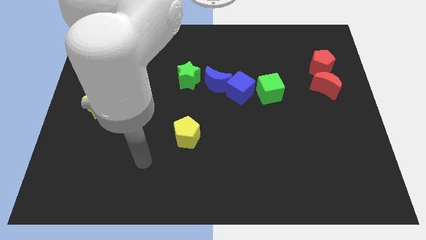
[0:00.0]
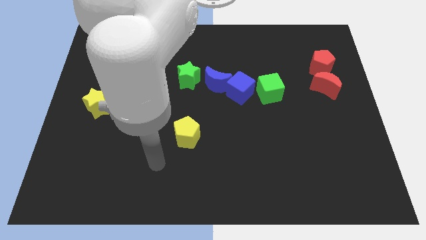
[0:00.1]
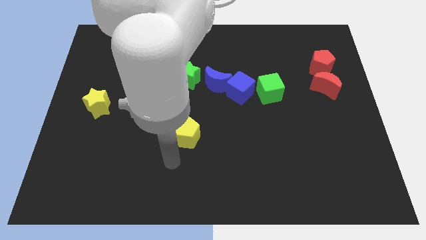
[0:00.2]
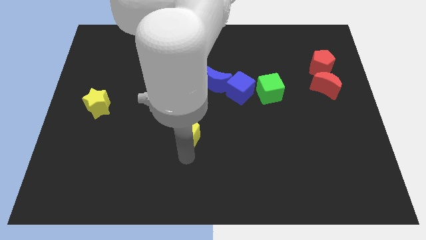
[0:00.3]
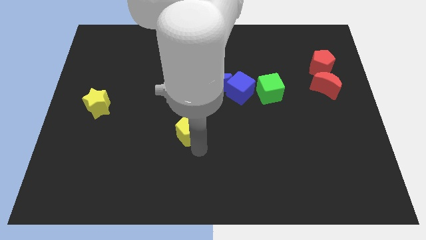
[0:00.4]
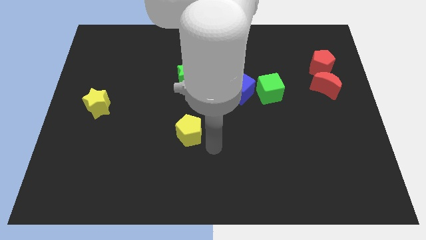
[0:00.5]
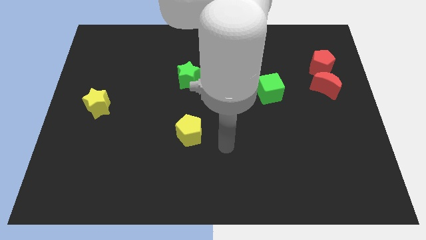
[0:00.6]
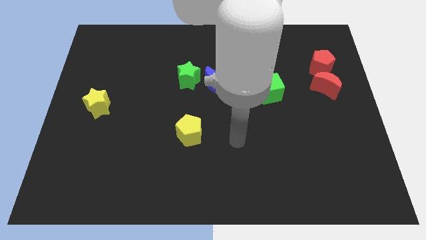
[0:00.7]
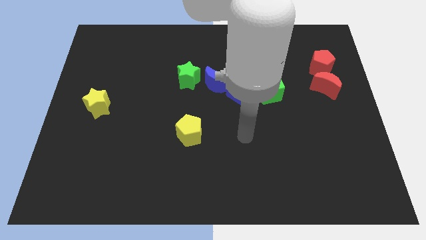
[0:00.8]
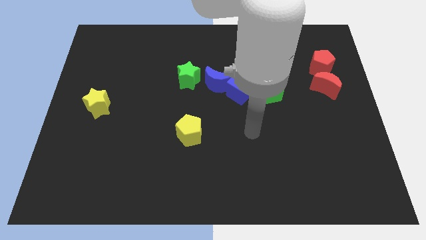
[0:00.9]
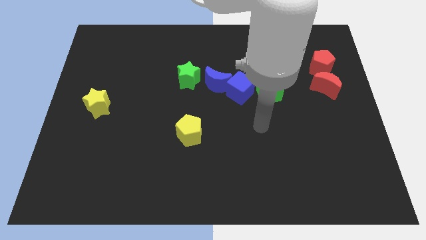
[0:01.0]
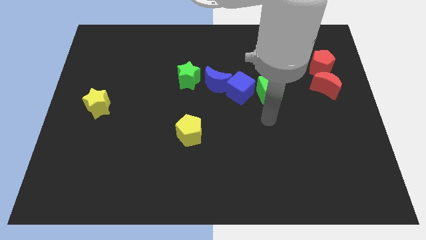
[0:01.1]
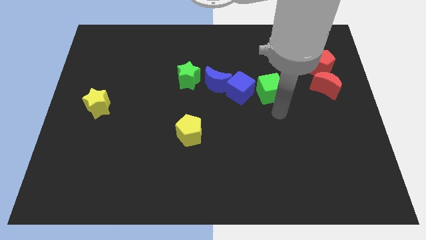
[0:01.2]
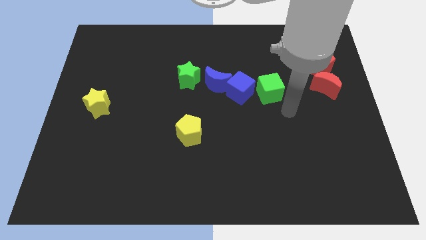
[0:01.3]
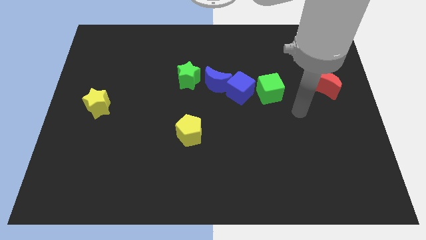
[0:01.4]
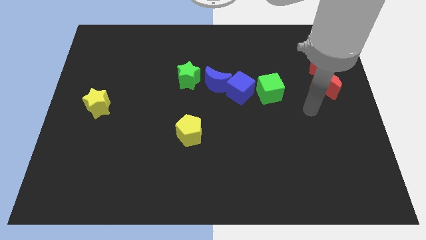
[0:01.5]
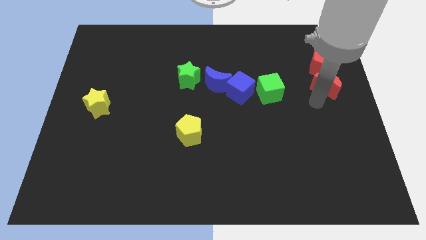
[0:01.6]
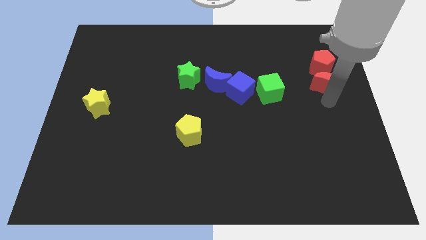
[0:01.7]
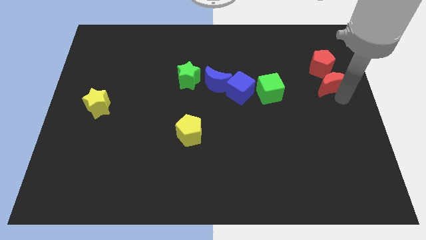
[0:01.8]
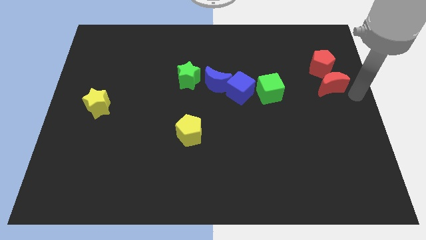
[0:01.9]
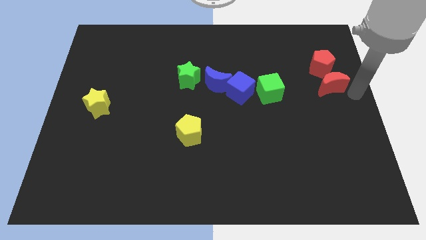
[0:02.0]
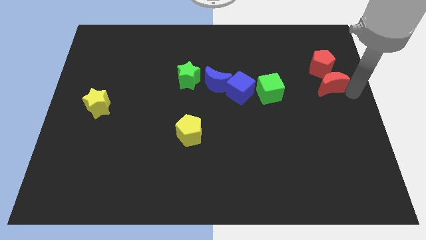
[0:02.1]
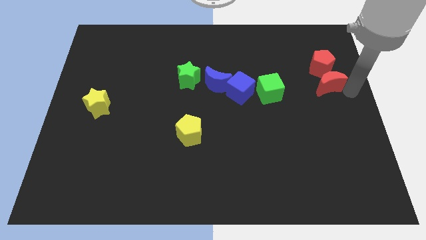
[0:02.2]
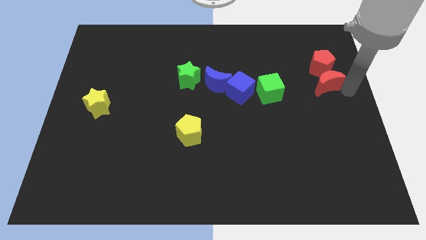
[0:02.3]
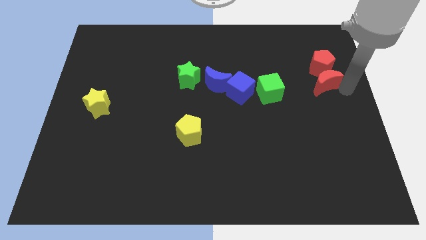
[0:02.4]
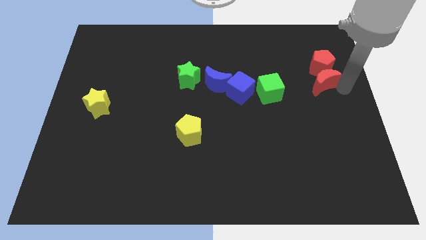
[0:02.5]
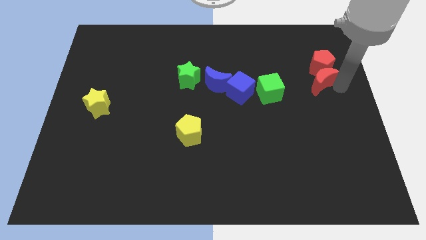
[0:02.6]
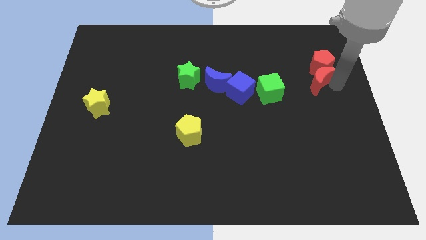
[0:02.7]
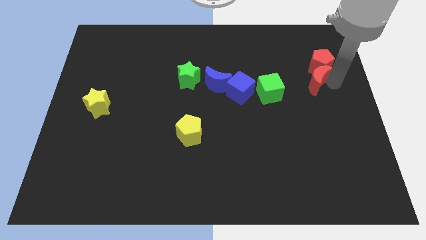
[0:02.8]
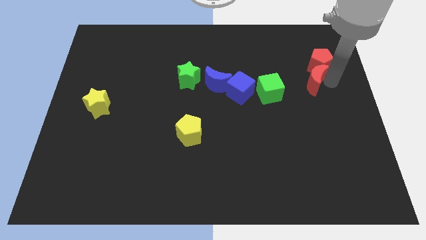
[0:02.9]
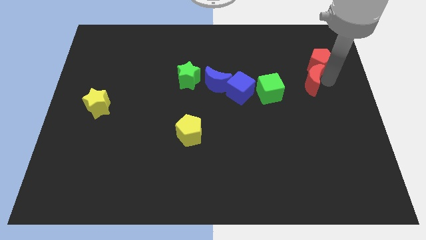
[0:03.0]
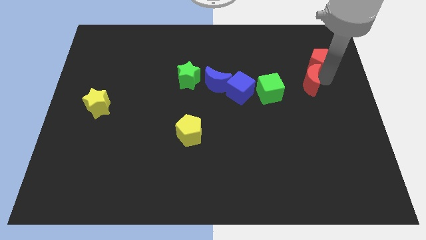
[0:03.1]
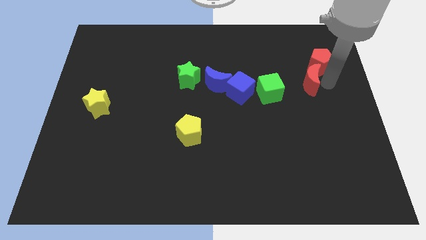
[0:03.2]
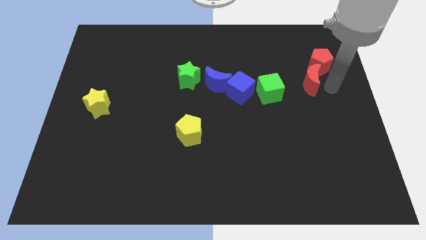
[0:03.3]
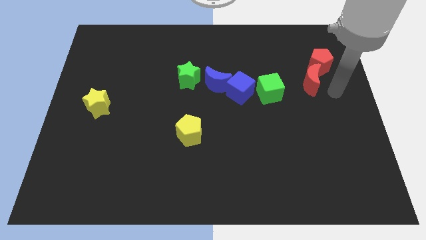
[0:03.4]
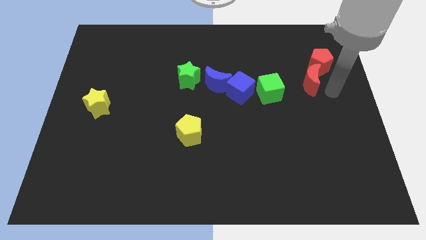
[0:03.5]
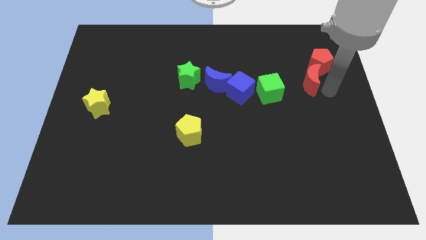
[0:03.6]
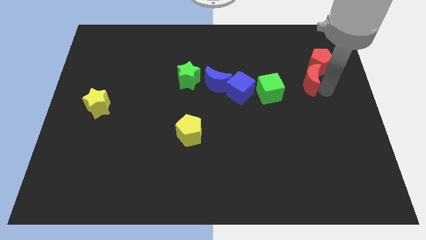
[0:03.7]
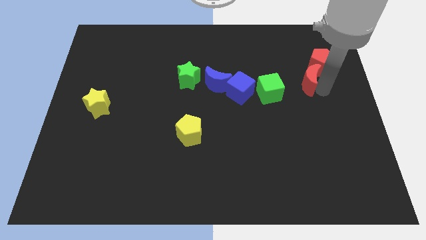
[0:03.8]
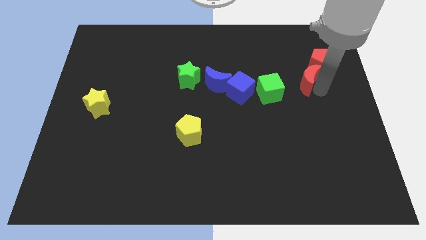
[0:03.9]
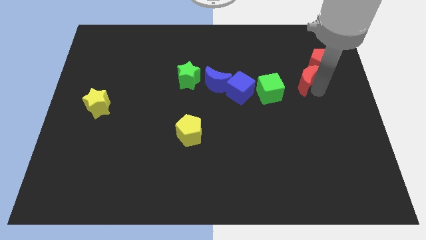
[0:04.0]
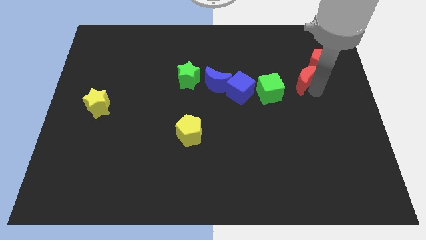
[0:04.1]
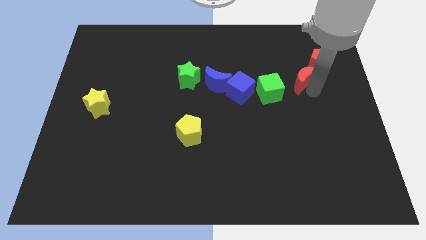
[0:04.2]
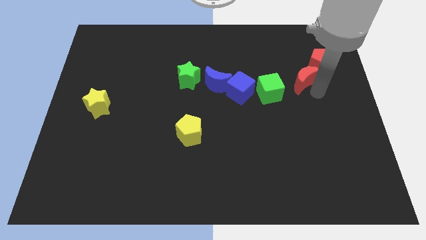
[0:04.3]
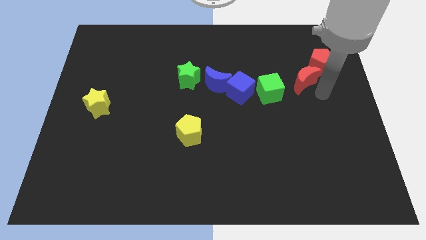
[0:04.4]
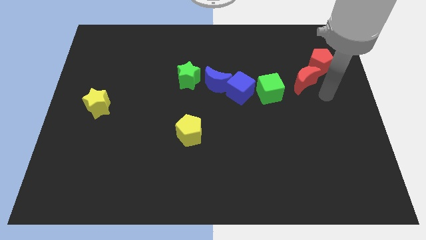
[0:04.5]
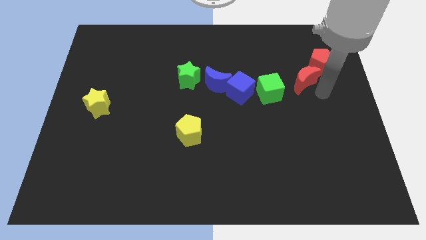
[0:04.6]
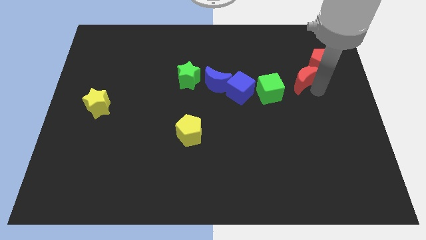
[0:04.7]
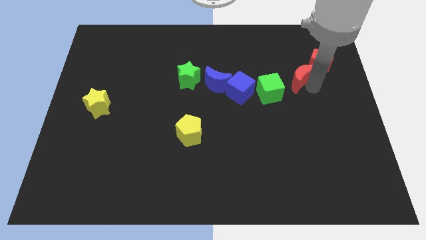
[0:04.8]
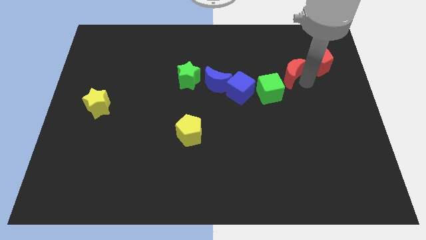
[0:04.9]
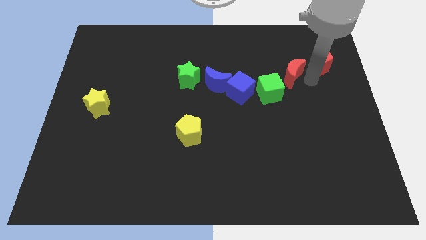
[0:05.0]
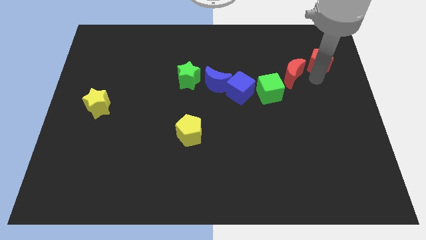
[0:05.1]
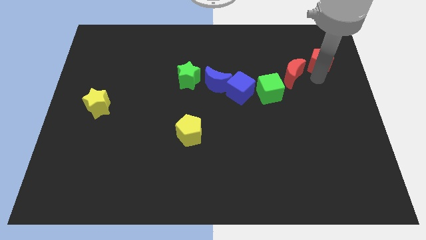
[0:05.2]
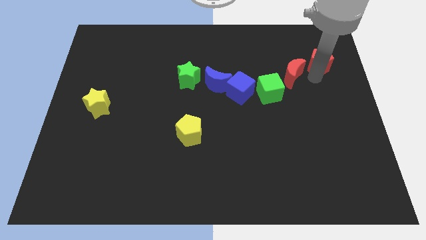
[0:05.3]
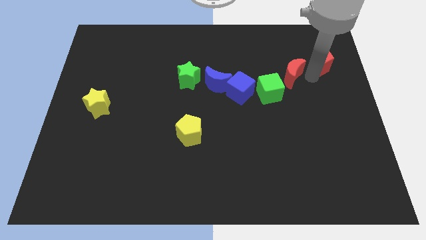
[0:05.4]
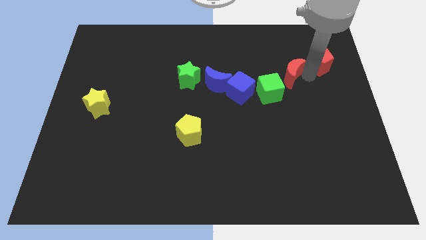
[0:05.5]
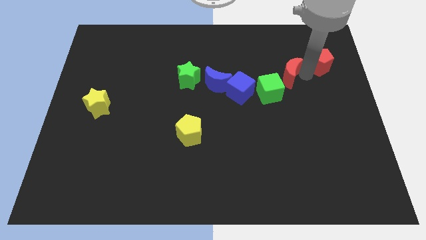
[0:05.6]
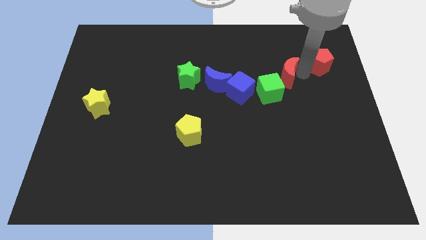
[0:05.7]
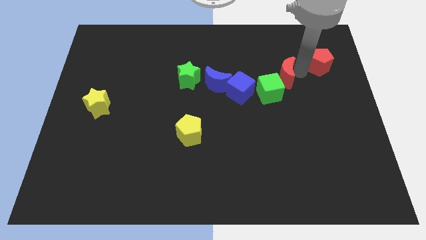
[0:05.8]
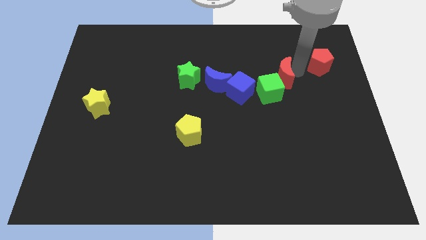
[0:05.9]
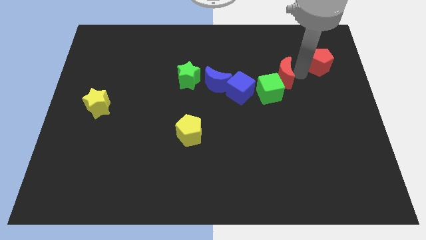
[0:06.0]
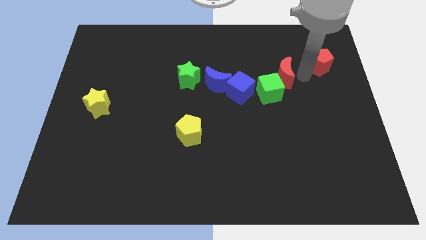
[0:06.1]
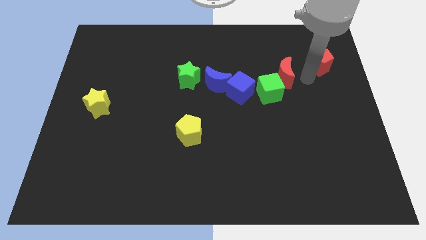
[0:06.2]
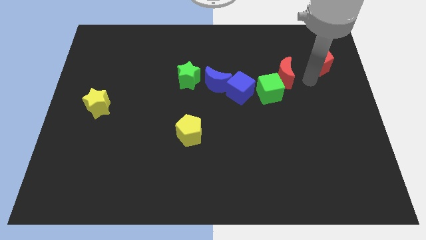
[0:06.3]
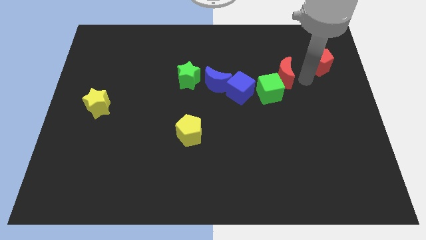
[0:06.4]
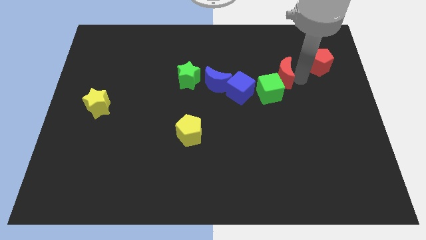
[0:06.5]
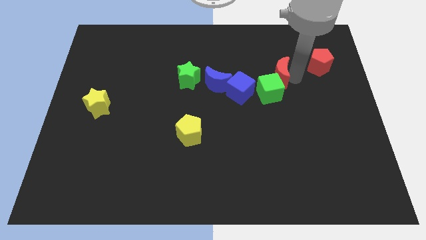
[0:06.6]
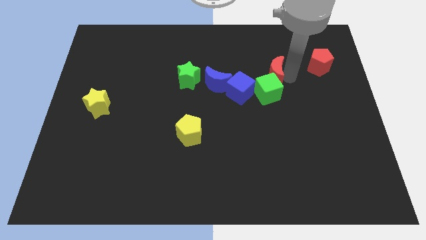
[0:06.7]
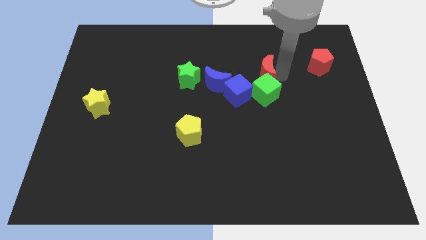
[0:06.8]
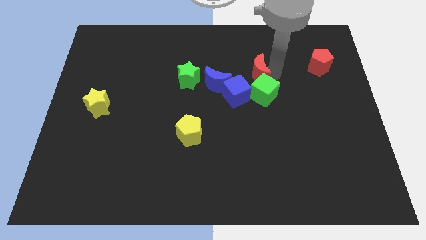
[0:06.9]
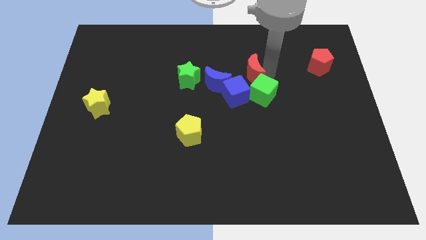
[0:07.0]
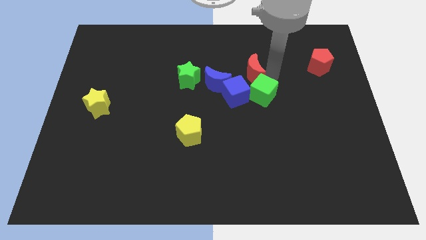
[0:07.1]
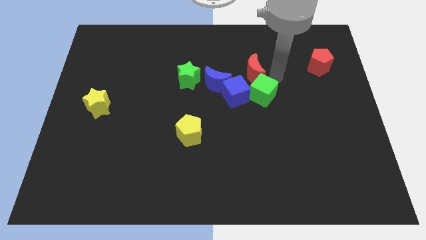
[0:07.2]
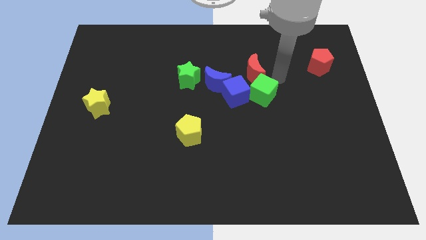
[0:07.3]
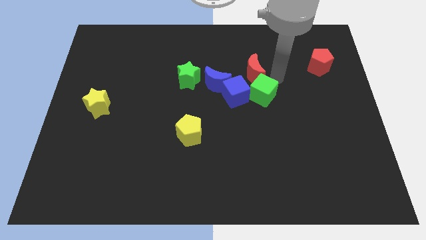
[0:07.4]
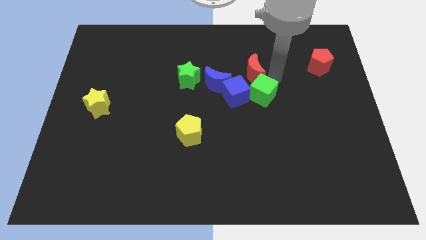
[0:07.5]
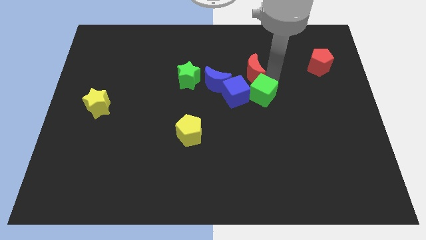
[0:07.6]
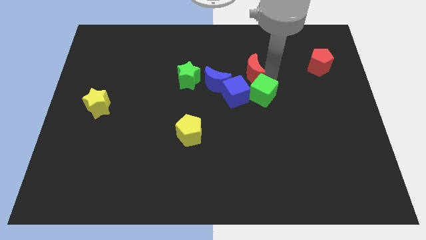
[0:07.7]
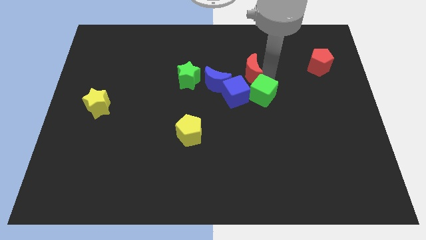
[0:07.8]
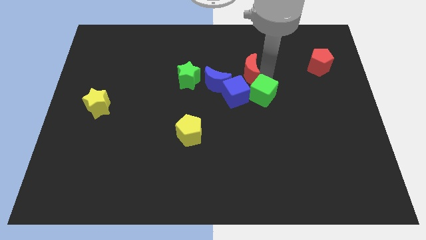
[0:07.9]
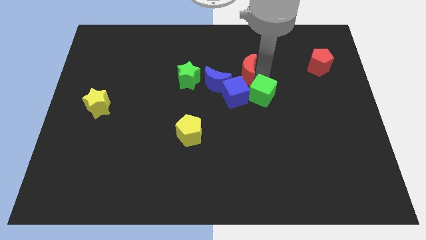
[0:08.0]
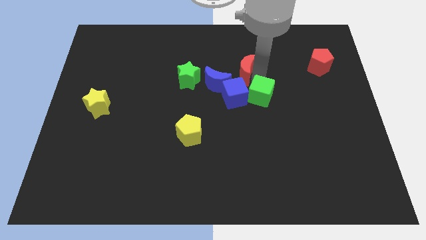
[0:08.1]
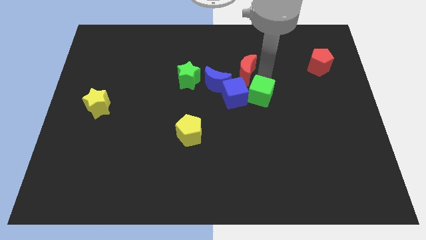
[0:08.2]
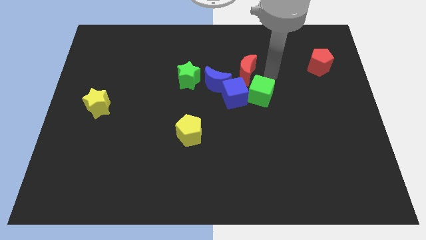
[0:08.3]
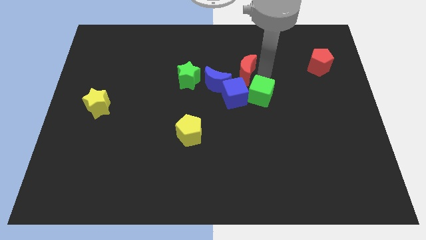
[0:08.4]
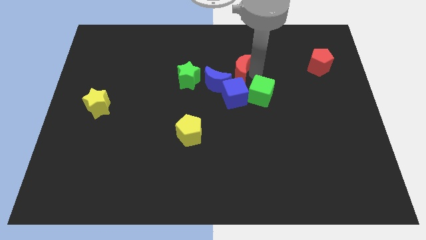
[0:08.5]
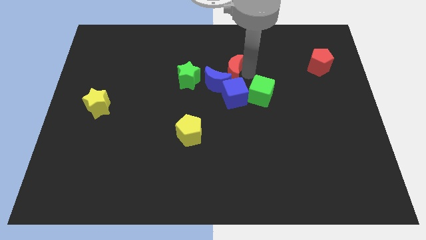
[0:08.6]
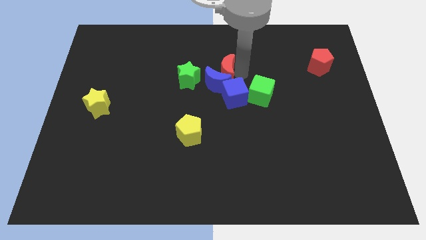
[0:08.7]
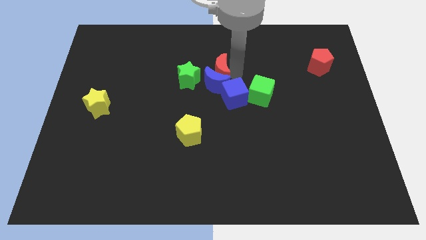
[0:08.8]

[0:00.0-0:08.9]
slide the red moon diagonally up and to the left of the blue moon
